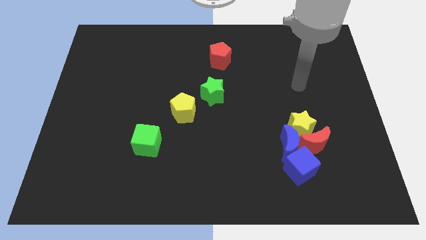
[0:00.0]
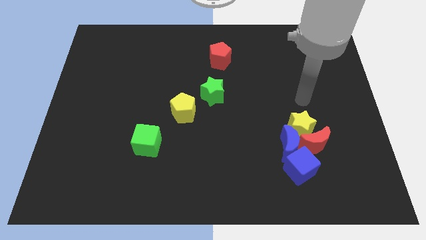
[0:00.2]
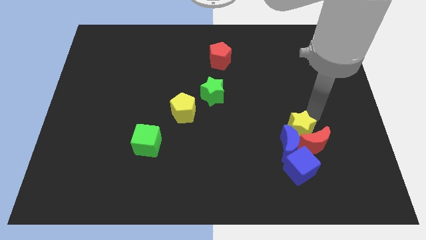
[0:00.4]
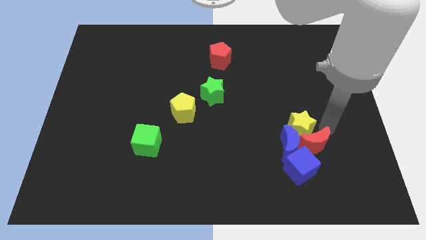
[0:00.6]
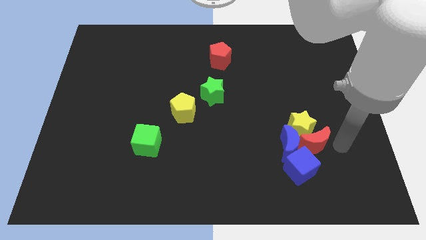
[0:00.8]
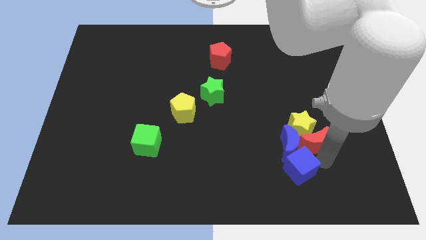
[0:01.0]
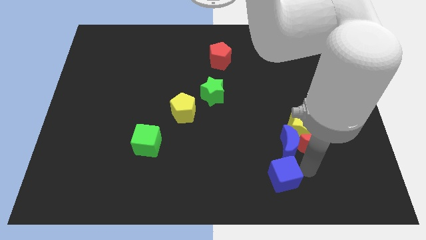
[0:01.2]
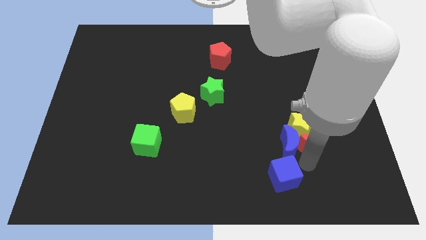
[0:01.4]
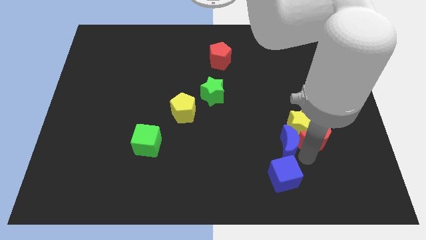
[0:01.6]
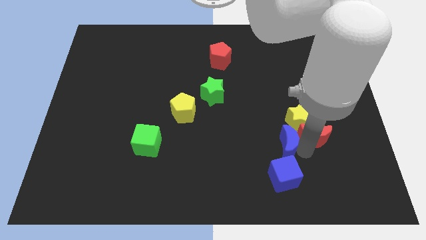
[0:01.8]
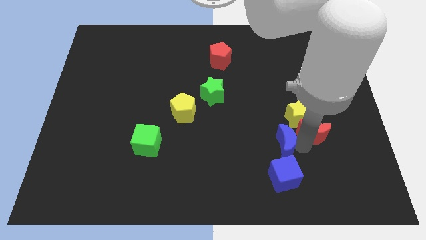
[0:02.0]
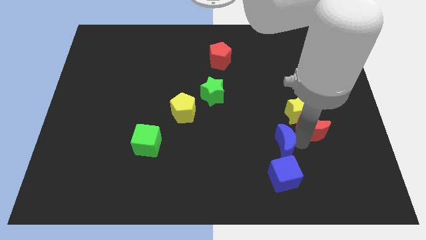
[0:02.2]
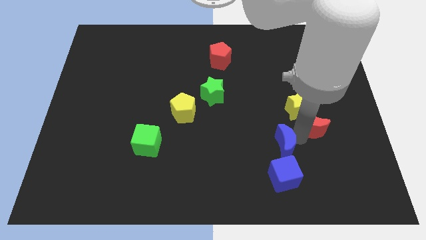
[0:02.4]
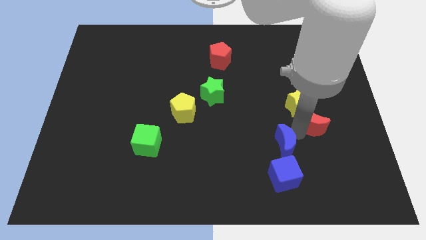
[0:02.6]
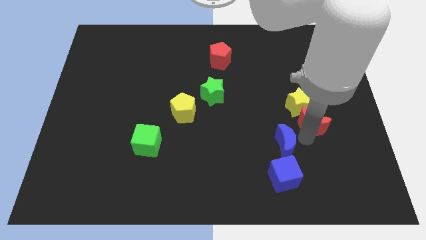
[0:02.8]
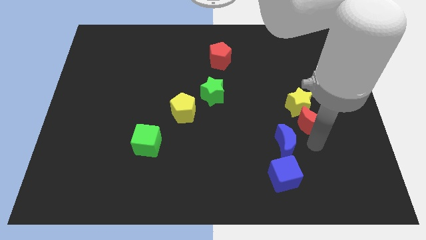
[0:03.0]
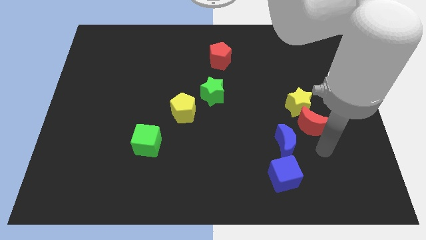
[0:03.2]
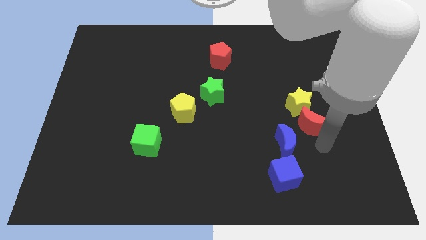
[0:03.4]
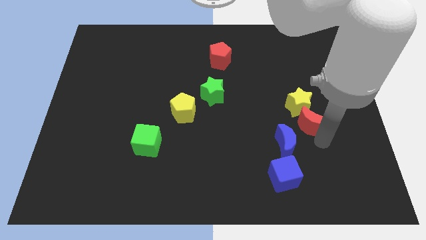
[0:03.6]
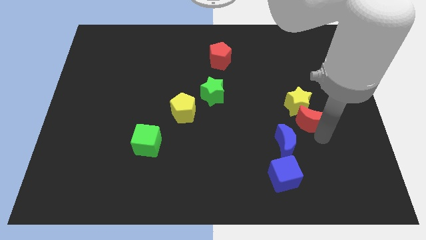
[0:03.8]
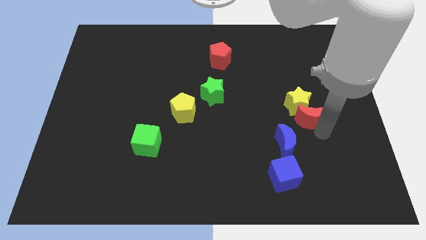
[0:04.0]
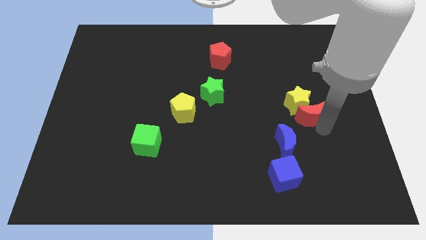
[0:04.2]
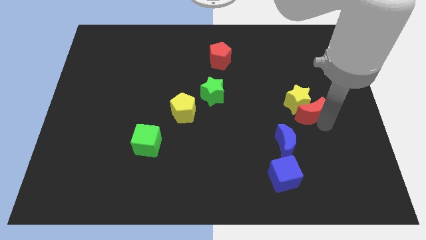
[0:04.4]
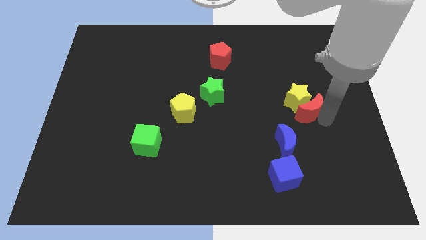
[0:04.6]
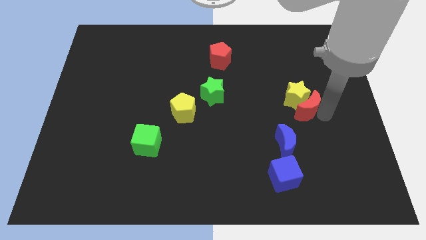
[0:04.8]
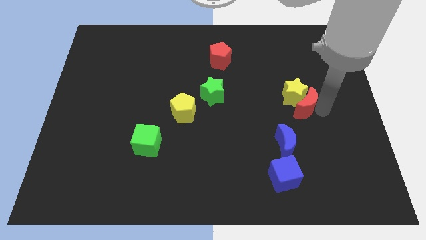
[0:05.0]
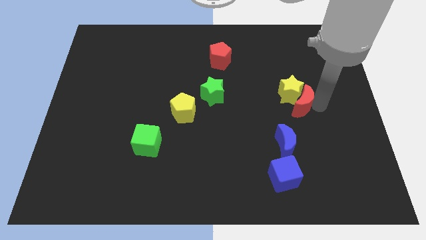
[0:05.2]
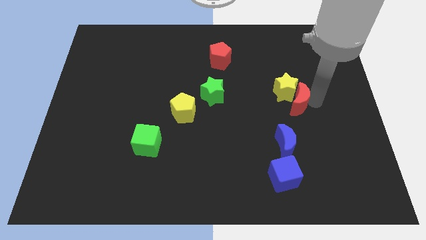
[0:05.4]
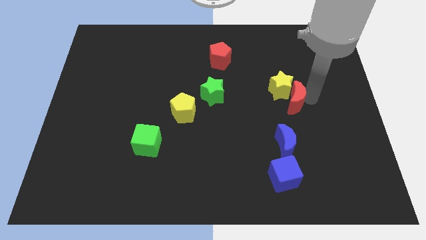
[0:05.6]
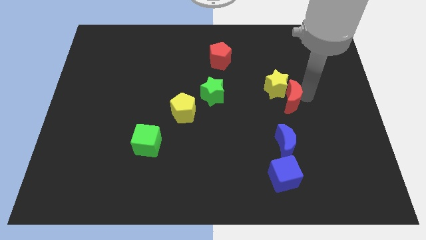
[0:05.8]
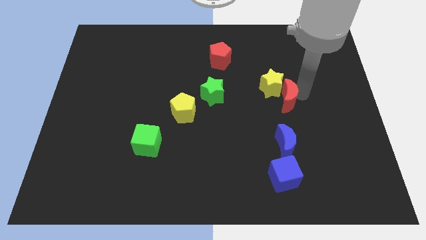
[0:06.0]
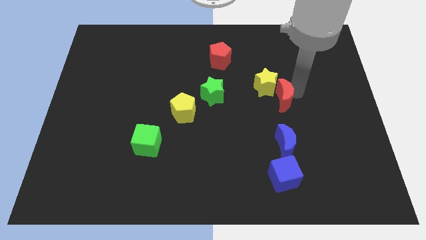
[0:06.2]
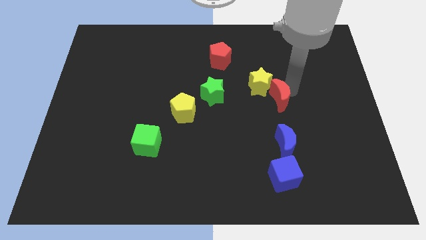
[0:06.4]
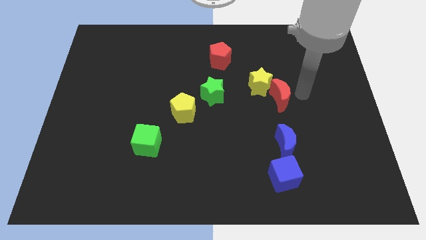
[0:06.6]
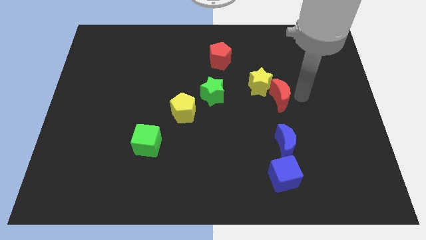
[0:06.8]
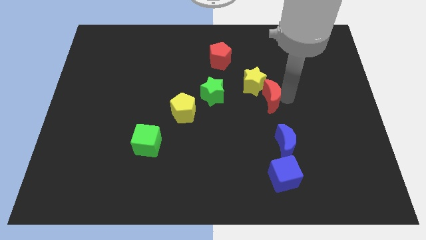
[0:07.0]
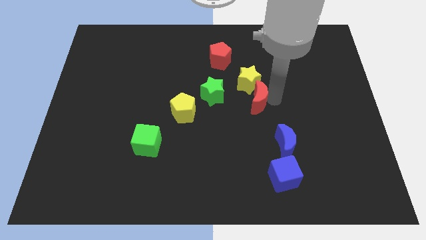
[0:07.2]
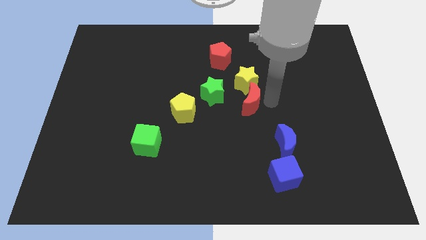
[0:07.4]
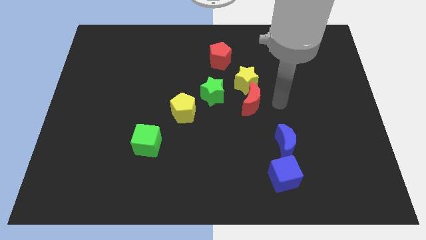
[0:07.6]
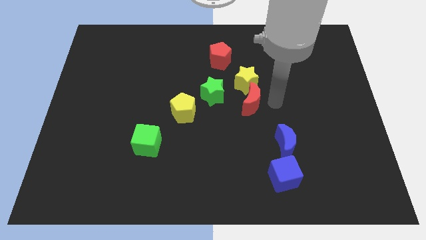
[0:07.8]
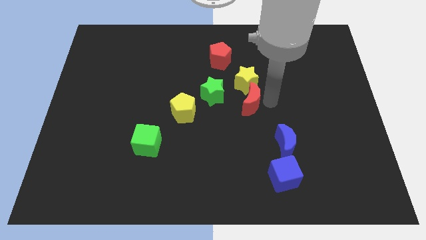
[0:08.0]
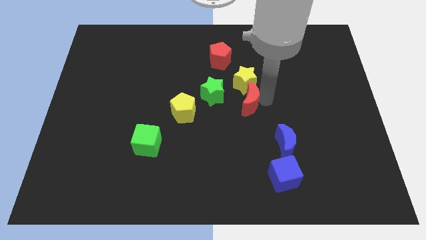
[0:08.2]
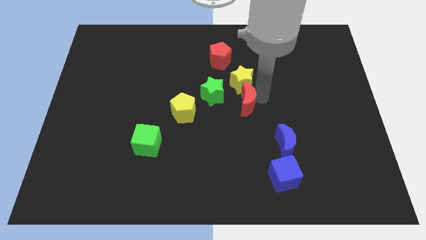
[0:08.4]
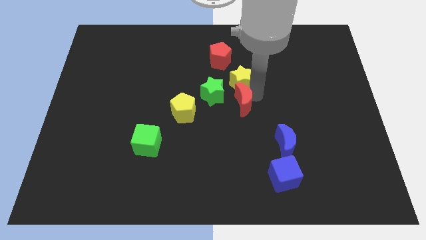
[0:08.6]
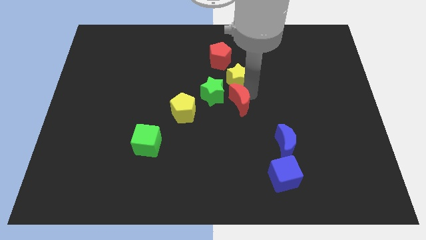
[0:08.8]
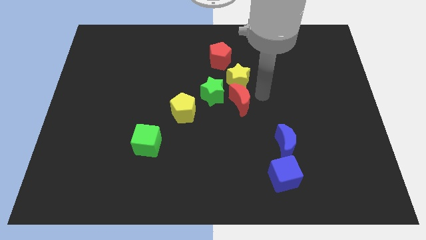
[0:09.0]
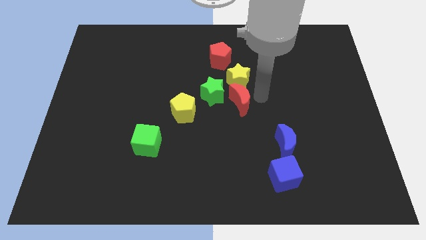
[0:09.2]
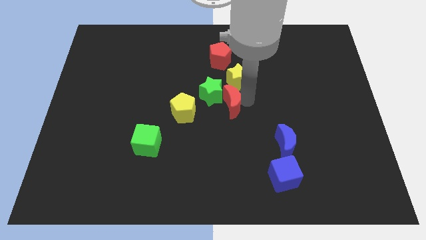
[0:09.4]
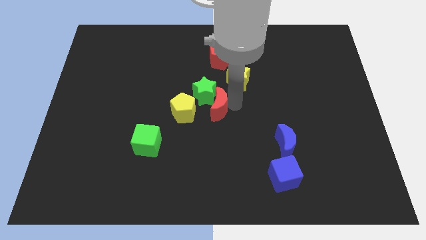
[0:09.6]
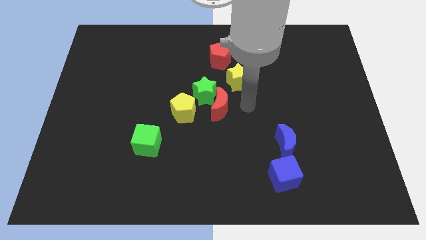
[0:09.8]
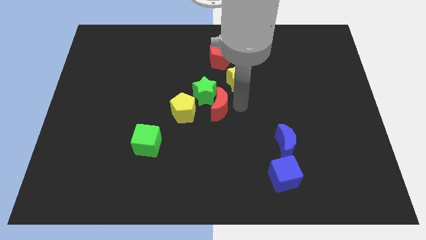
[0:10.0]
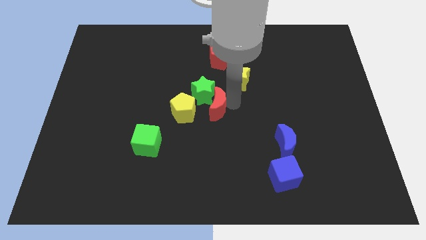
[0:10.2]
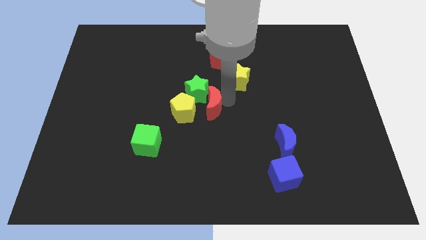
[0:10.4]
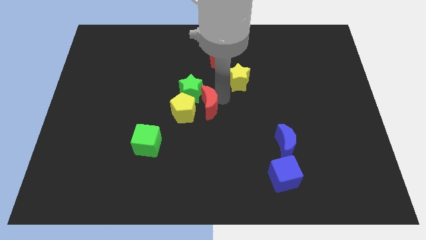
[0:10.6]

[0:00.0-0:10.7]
move the red moon close to the yellow pentagon

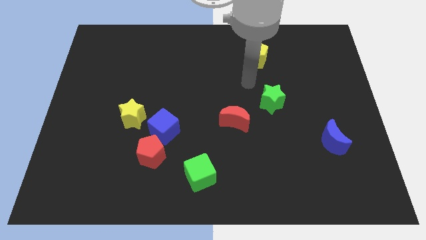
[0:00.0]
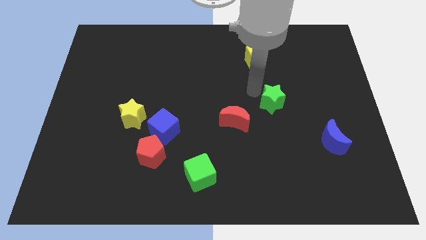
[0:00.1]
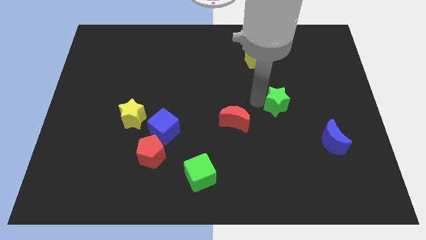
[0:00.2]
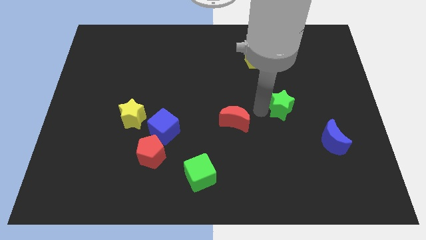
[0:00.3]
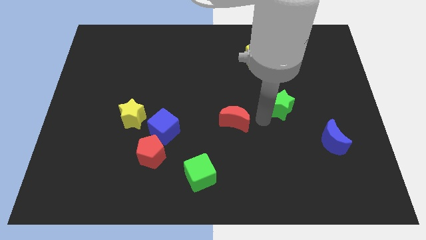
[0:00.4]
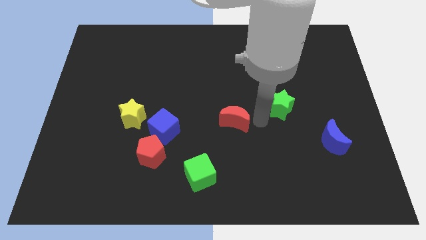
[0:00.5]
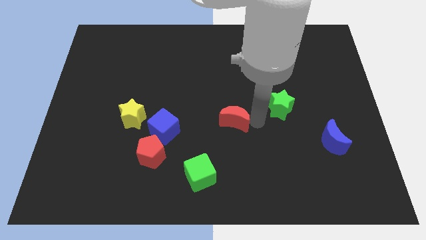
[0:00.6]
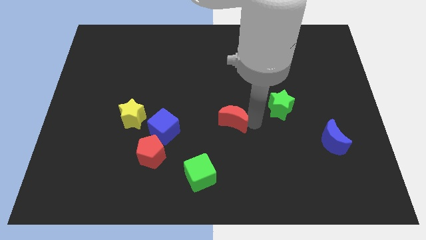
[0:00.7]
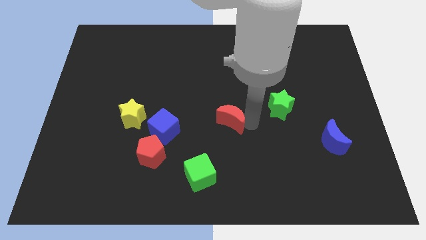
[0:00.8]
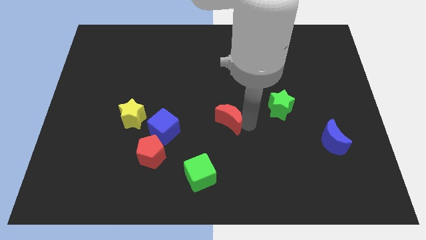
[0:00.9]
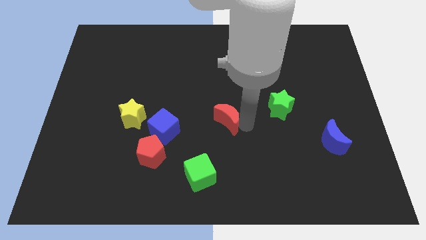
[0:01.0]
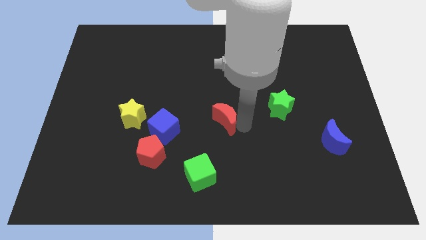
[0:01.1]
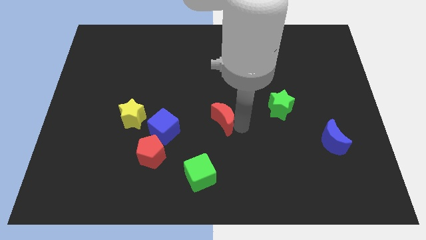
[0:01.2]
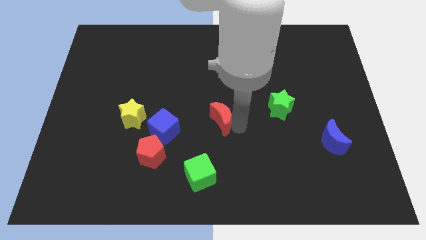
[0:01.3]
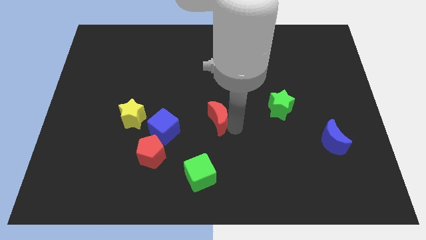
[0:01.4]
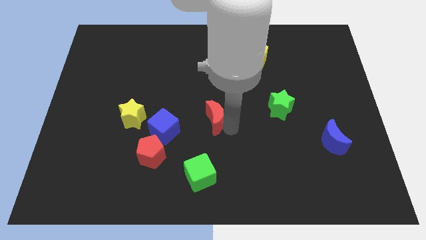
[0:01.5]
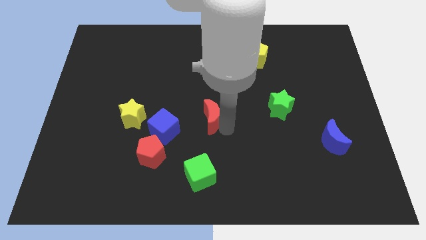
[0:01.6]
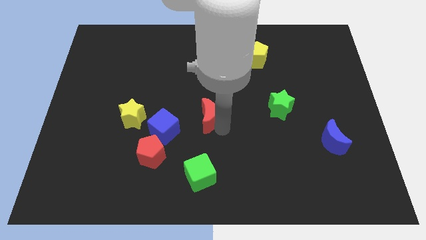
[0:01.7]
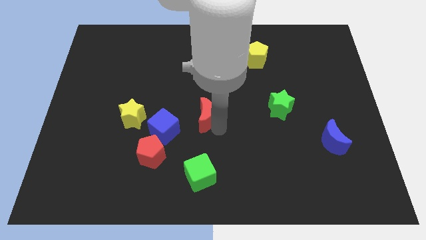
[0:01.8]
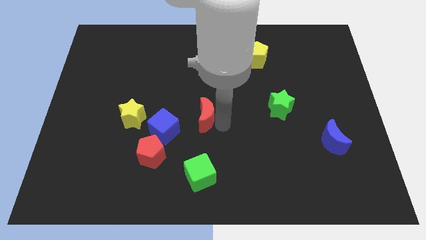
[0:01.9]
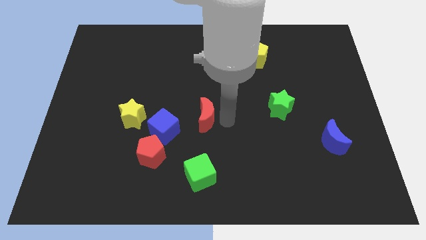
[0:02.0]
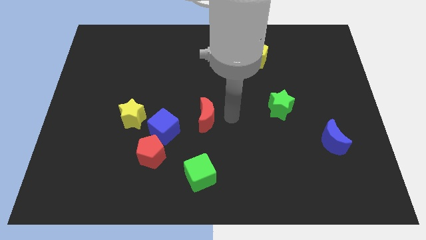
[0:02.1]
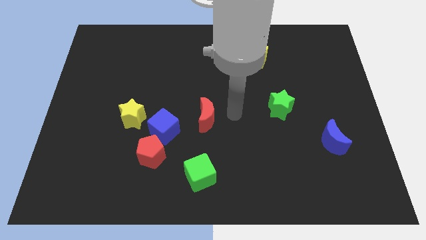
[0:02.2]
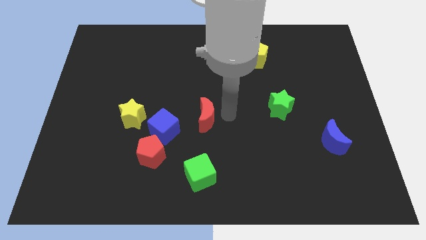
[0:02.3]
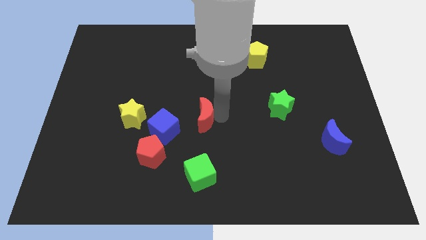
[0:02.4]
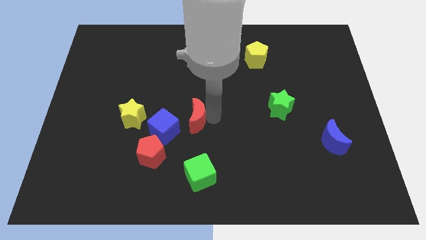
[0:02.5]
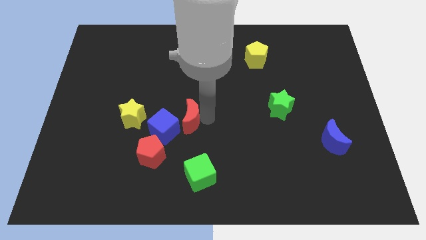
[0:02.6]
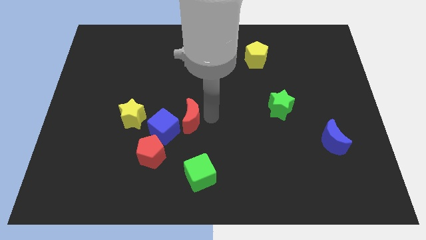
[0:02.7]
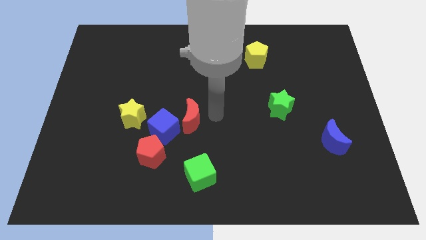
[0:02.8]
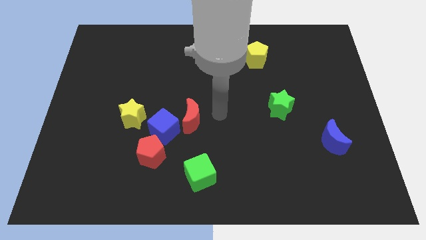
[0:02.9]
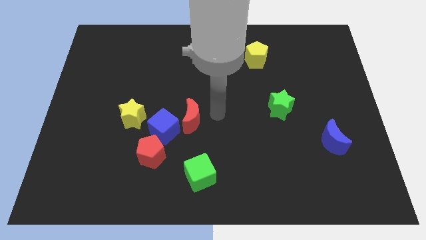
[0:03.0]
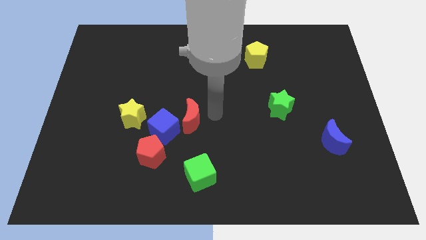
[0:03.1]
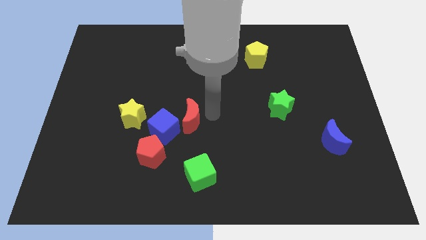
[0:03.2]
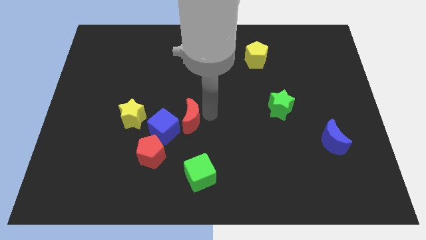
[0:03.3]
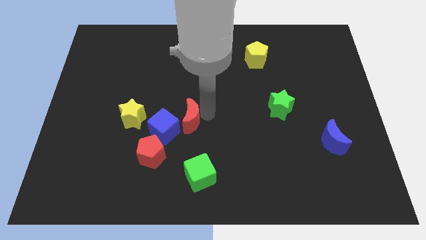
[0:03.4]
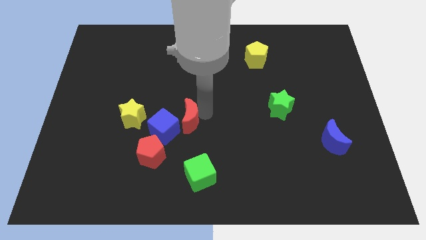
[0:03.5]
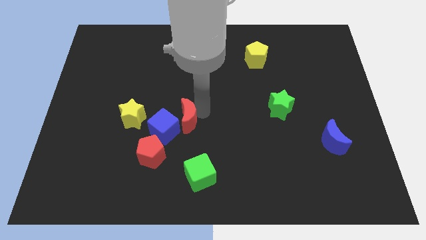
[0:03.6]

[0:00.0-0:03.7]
put the red moon next to the blue cube
